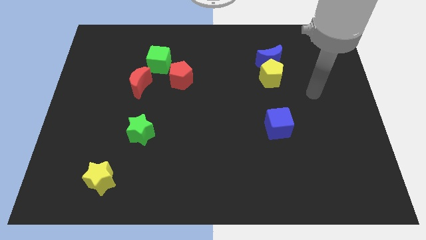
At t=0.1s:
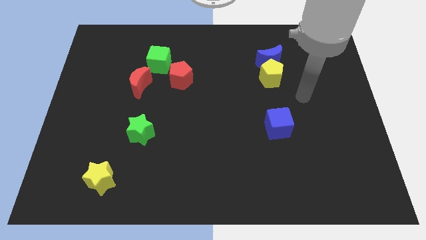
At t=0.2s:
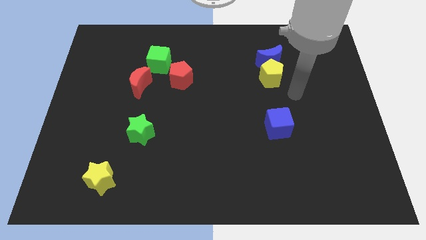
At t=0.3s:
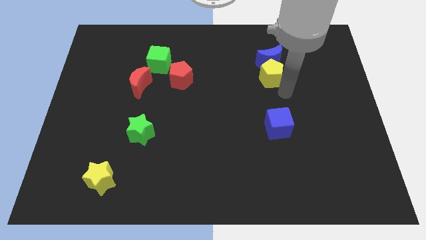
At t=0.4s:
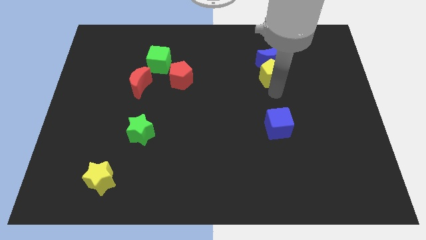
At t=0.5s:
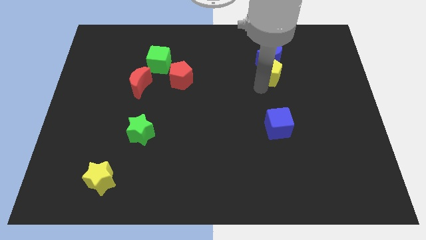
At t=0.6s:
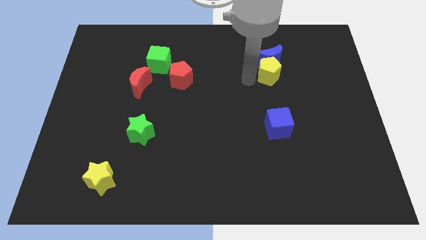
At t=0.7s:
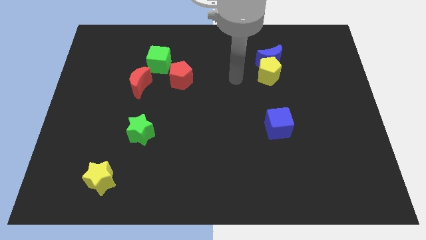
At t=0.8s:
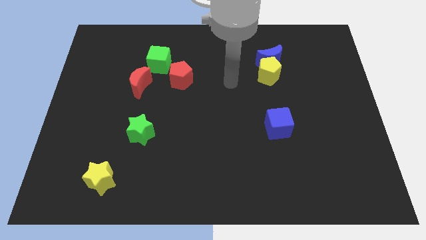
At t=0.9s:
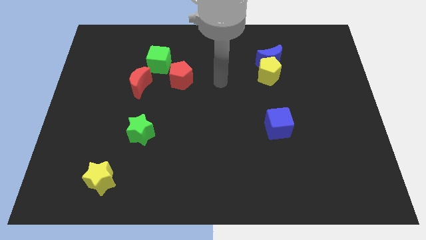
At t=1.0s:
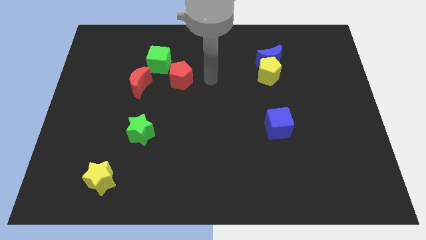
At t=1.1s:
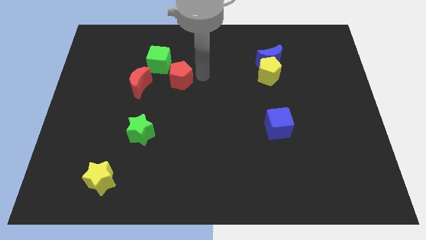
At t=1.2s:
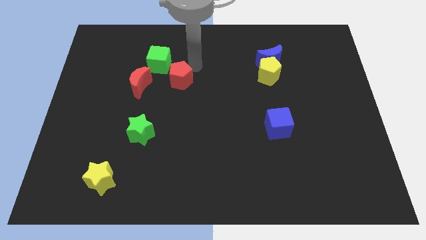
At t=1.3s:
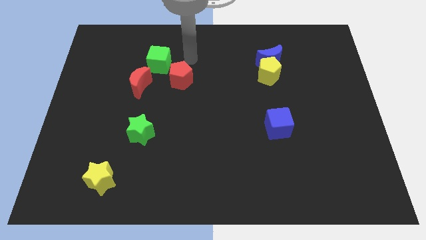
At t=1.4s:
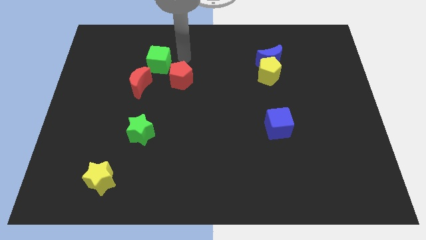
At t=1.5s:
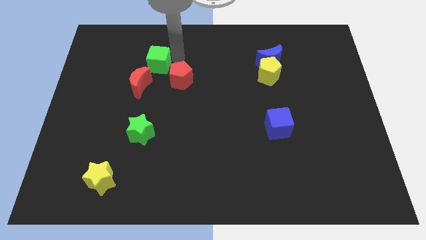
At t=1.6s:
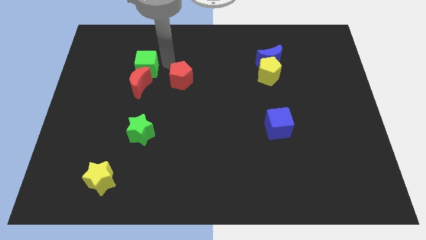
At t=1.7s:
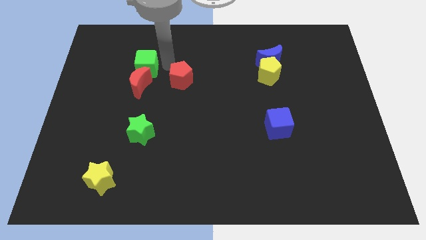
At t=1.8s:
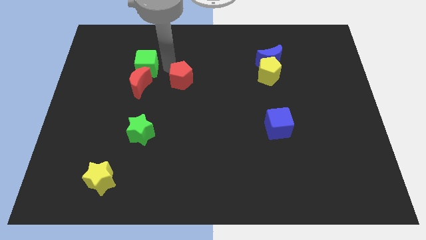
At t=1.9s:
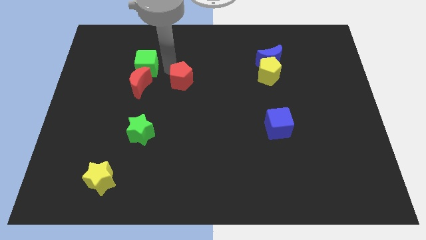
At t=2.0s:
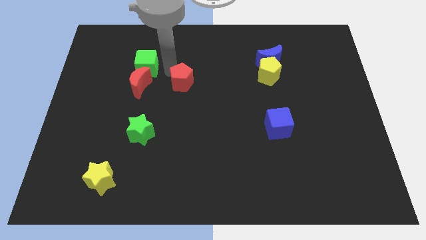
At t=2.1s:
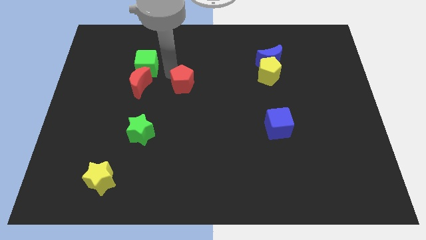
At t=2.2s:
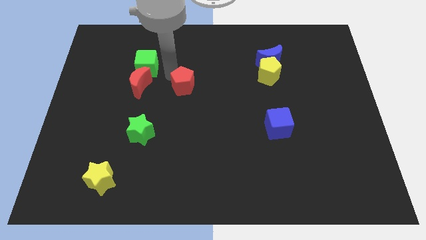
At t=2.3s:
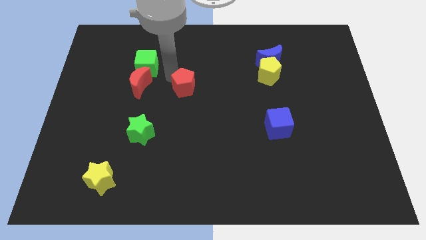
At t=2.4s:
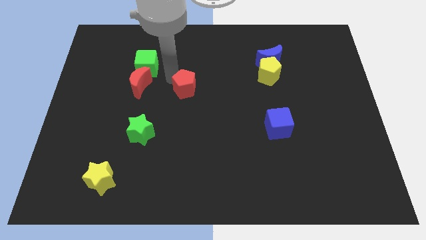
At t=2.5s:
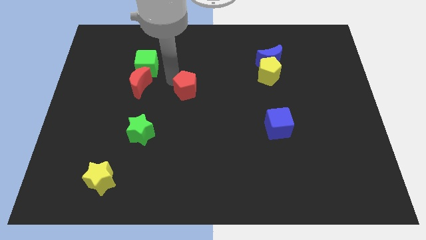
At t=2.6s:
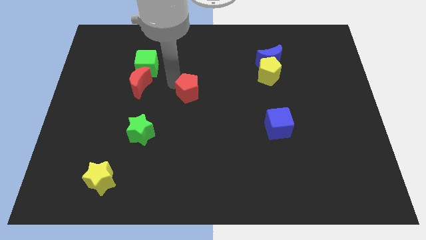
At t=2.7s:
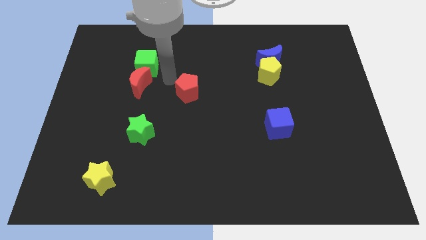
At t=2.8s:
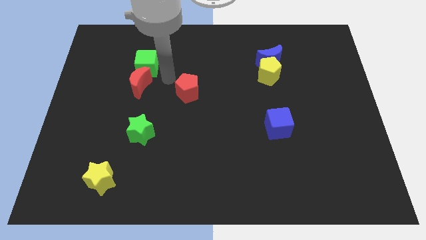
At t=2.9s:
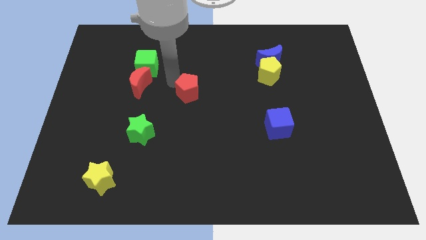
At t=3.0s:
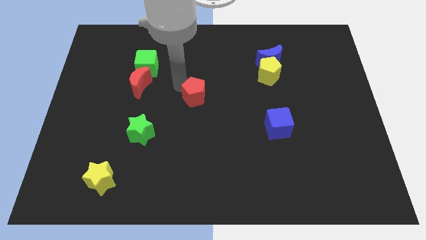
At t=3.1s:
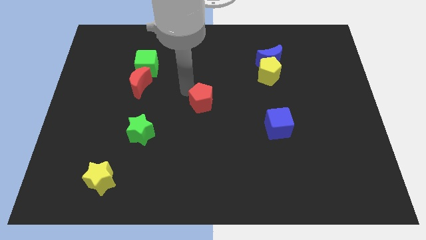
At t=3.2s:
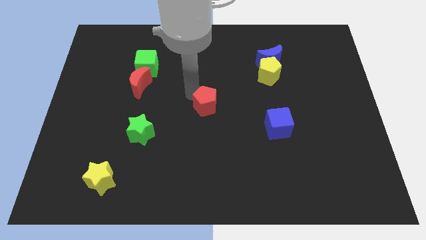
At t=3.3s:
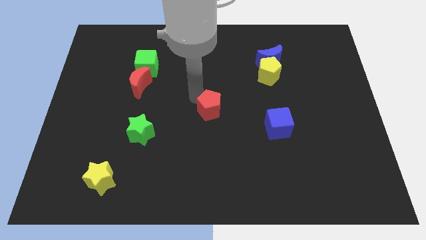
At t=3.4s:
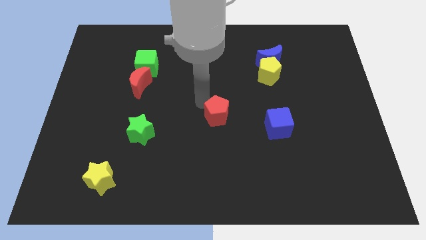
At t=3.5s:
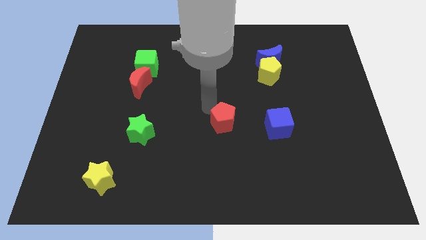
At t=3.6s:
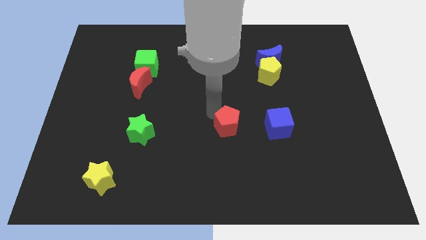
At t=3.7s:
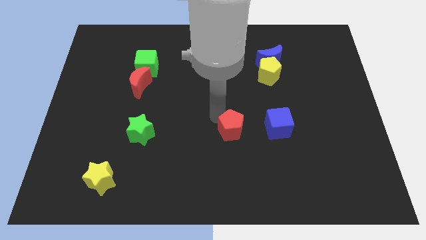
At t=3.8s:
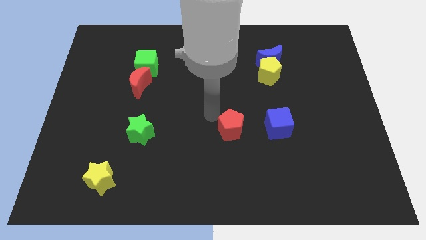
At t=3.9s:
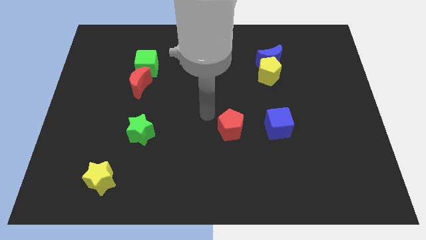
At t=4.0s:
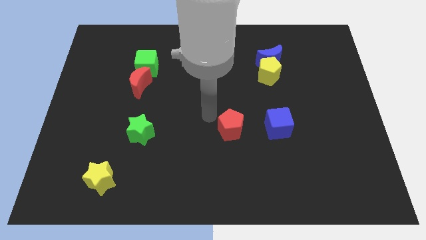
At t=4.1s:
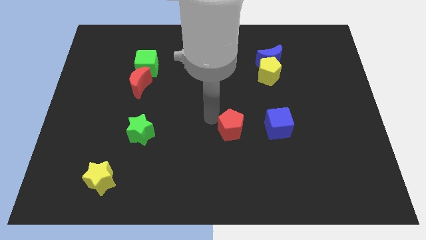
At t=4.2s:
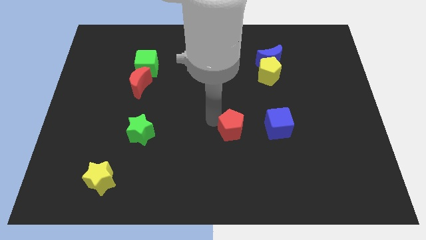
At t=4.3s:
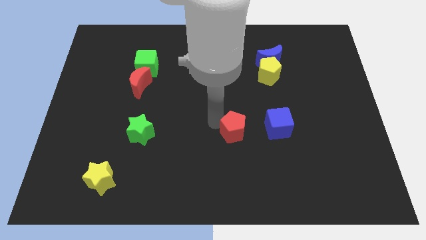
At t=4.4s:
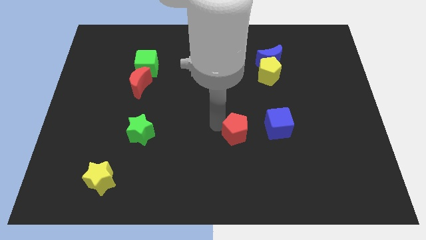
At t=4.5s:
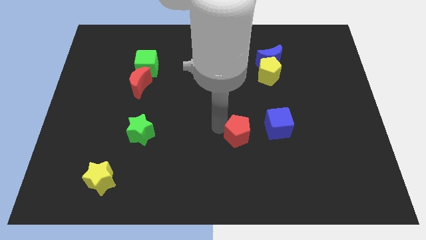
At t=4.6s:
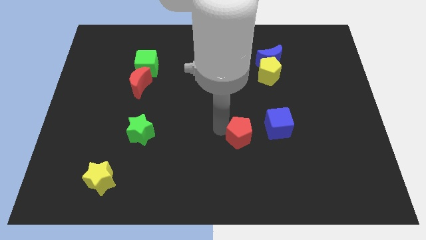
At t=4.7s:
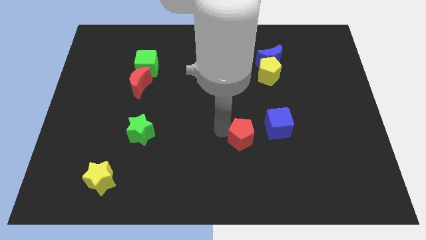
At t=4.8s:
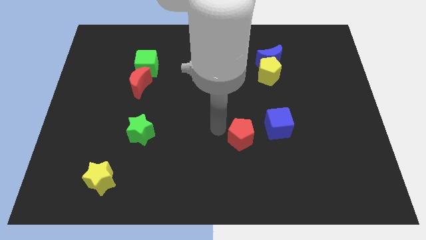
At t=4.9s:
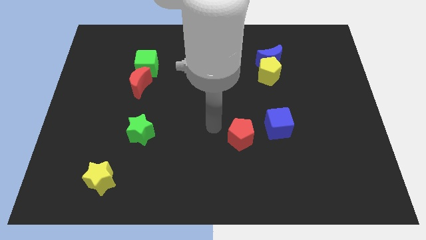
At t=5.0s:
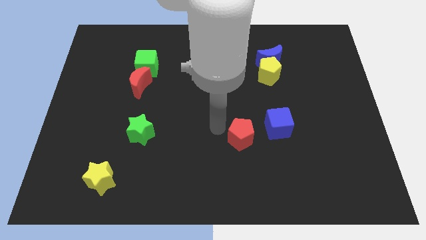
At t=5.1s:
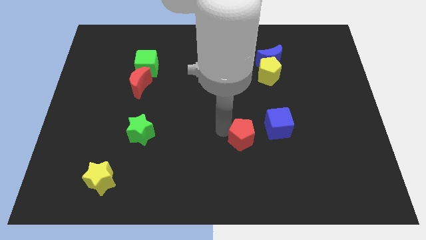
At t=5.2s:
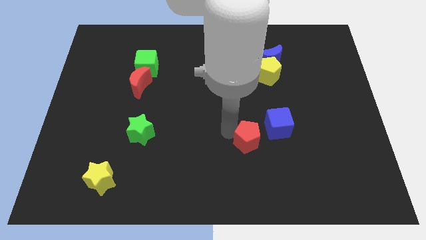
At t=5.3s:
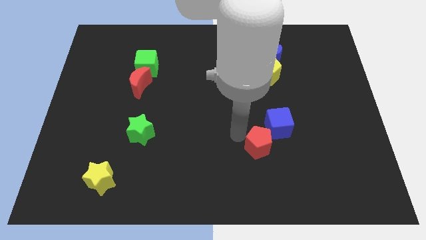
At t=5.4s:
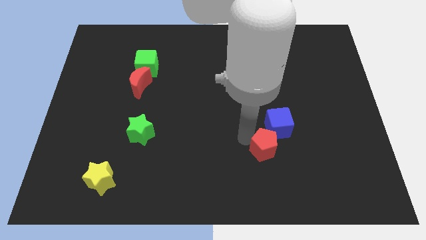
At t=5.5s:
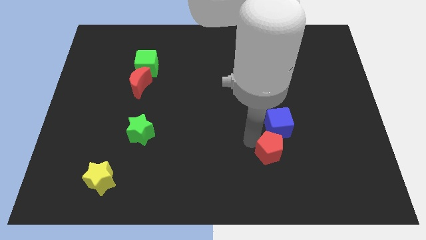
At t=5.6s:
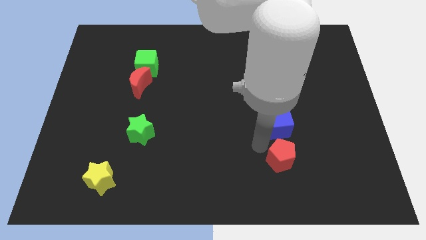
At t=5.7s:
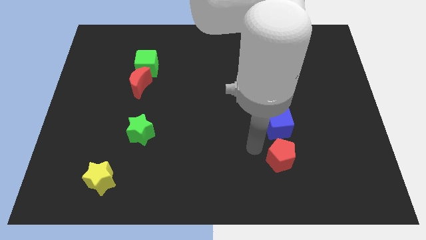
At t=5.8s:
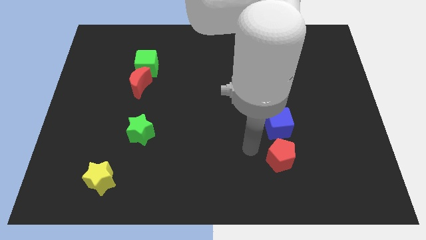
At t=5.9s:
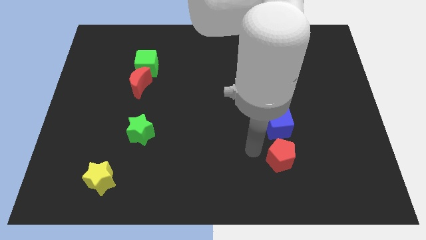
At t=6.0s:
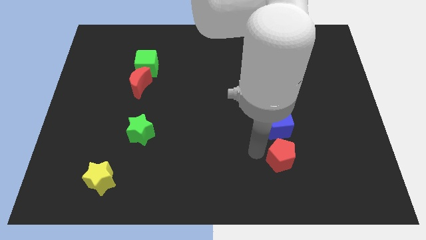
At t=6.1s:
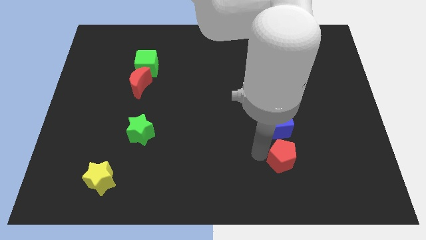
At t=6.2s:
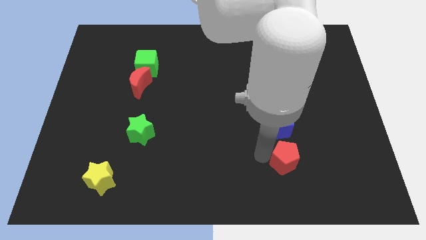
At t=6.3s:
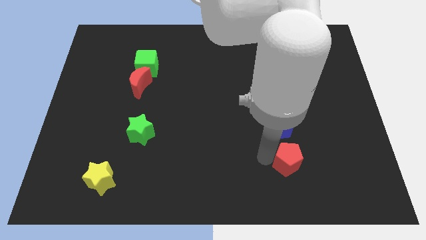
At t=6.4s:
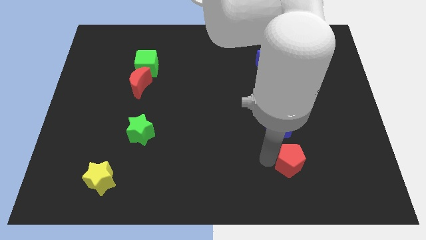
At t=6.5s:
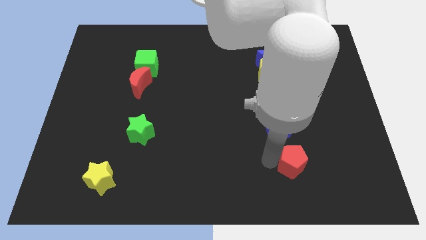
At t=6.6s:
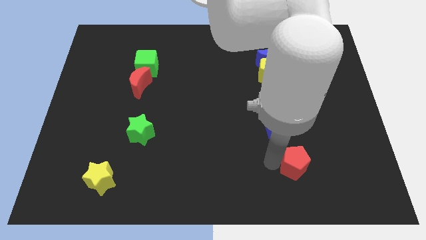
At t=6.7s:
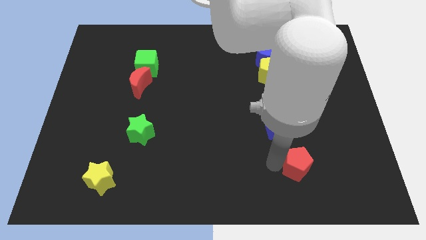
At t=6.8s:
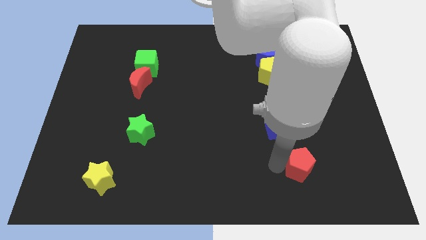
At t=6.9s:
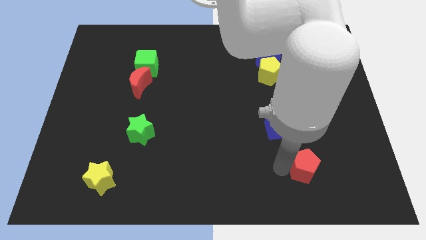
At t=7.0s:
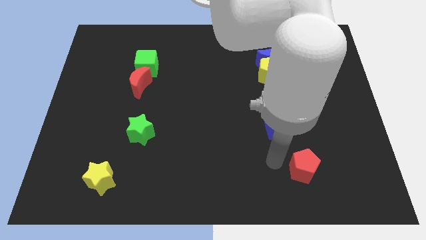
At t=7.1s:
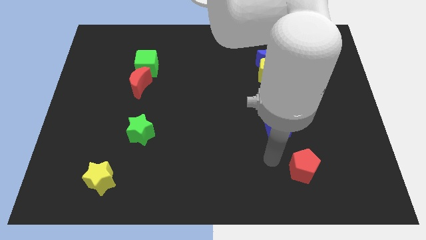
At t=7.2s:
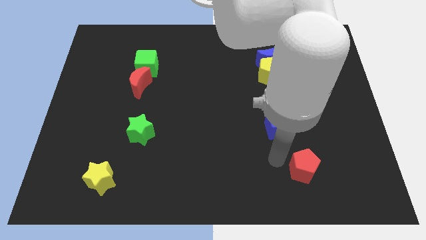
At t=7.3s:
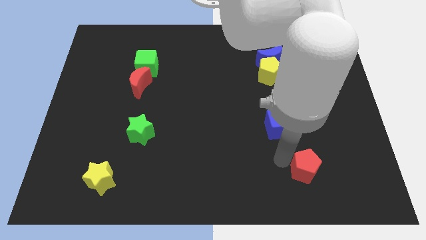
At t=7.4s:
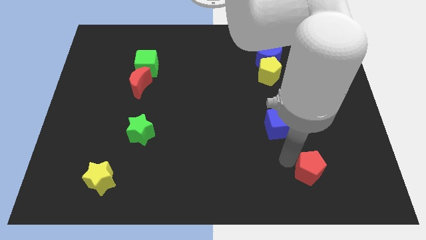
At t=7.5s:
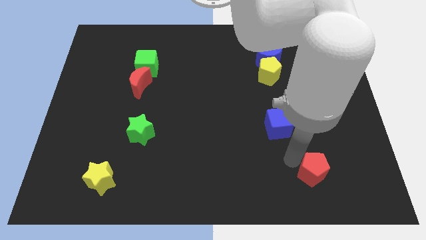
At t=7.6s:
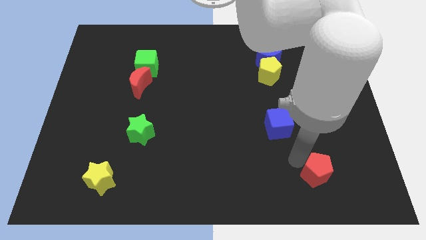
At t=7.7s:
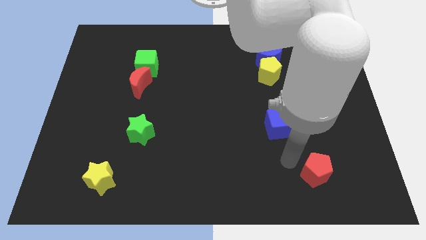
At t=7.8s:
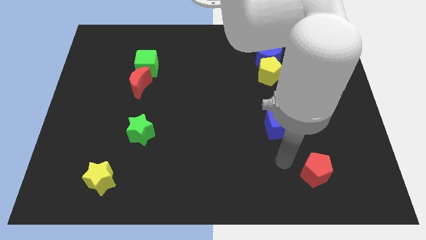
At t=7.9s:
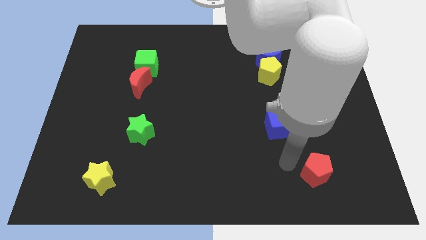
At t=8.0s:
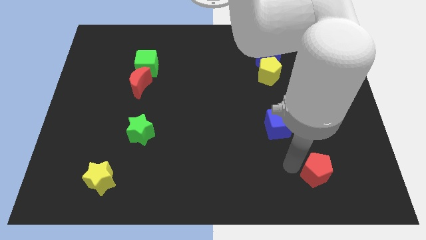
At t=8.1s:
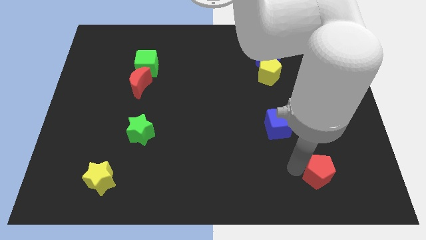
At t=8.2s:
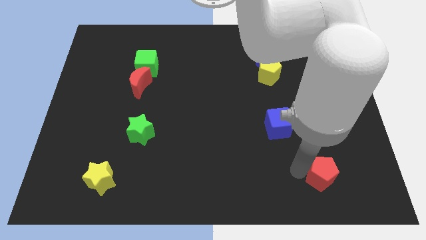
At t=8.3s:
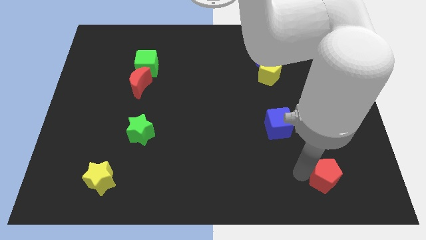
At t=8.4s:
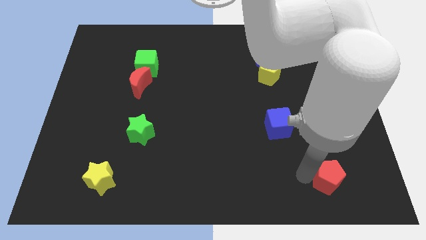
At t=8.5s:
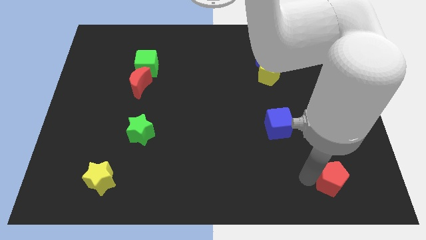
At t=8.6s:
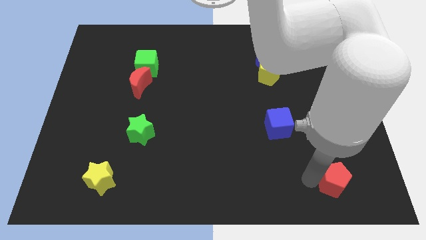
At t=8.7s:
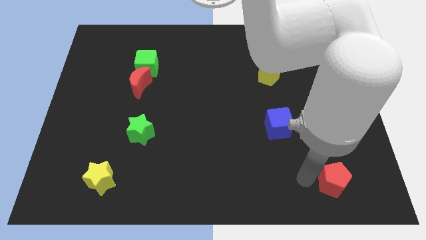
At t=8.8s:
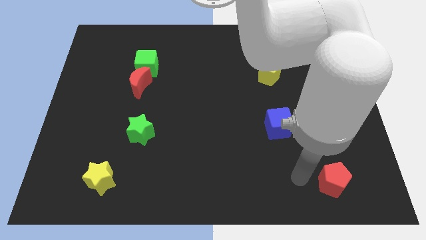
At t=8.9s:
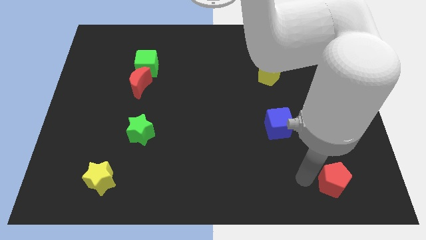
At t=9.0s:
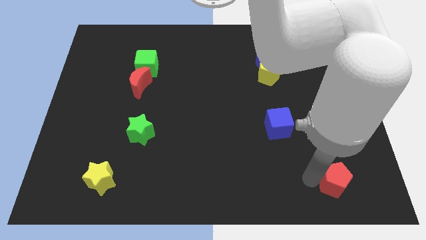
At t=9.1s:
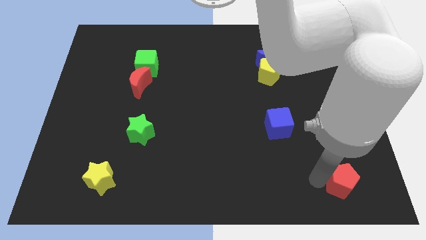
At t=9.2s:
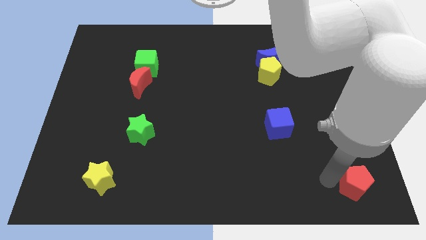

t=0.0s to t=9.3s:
move the red pentagon to the bottom right corner
